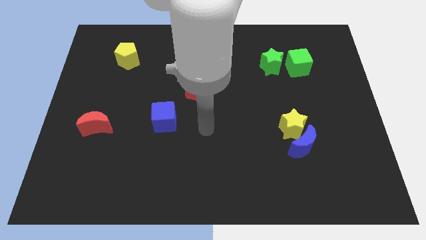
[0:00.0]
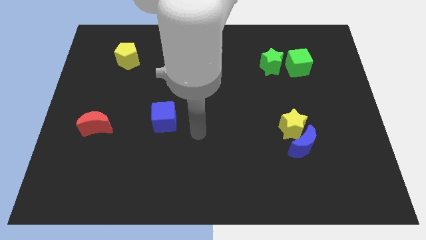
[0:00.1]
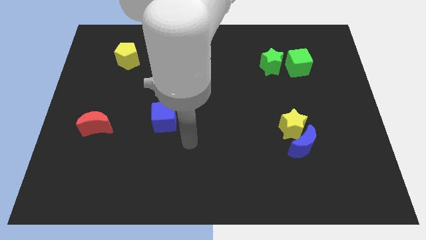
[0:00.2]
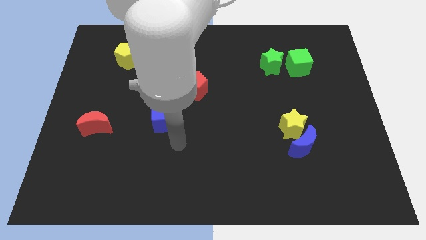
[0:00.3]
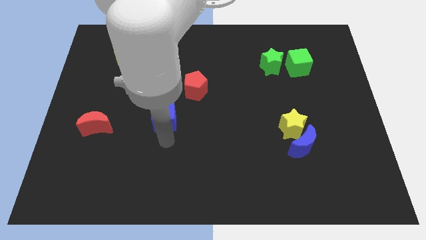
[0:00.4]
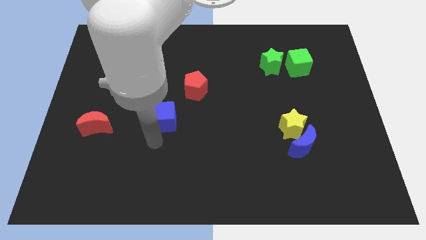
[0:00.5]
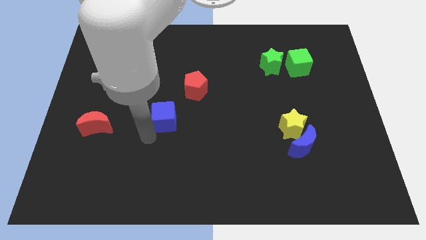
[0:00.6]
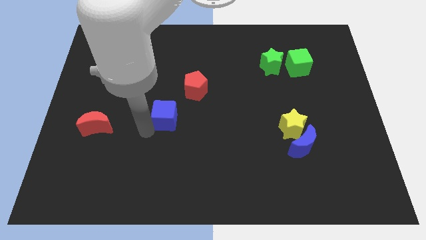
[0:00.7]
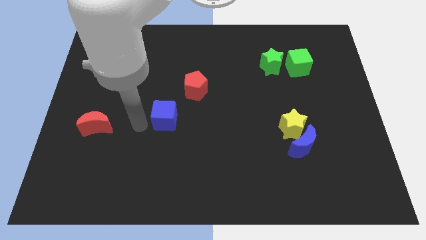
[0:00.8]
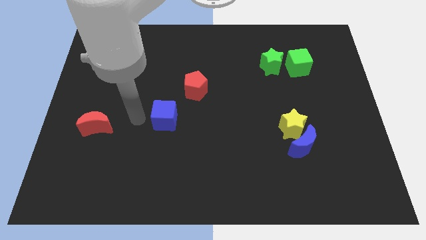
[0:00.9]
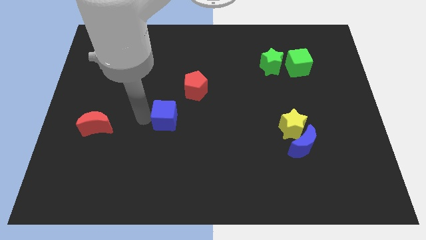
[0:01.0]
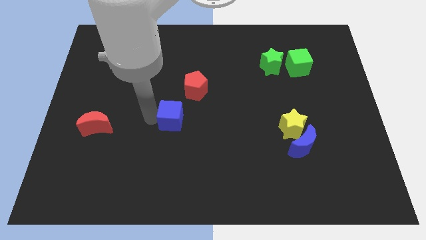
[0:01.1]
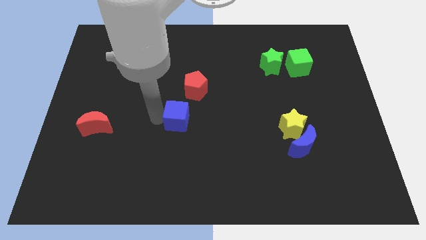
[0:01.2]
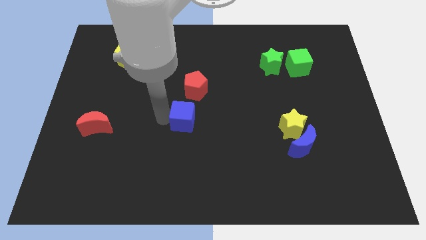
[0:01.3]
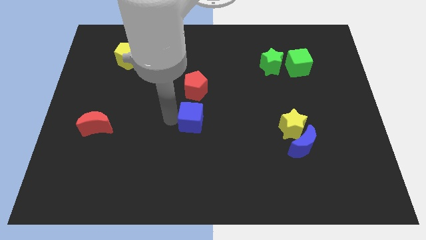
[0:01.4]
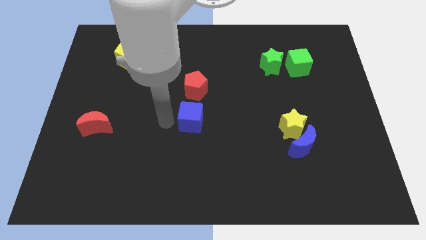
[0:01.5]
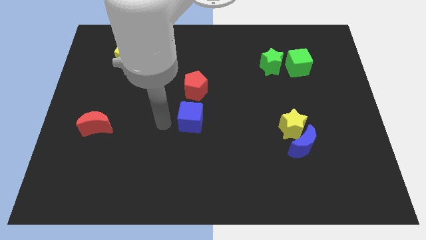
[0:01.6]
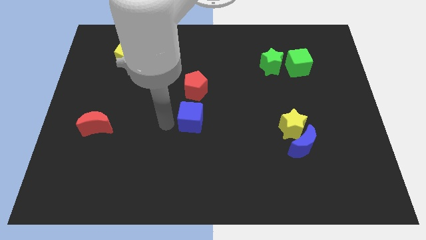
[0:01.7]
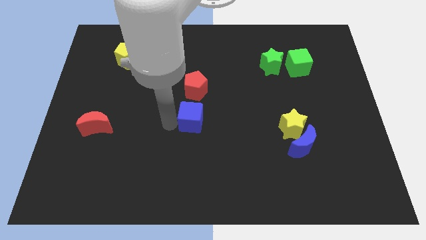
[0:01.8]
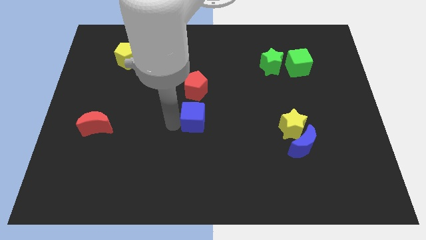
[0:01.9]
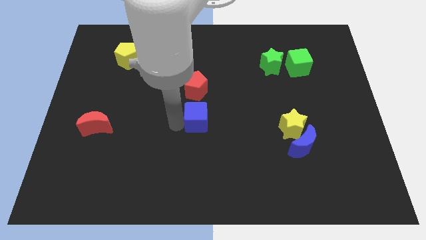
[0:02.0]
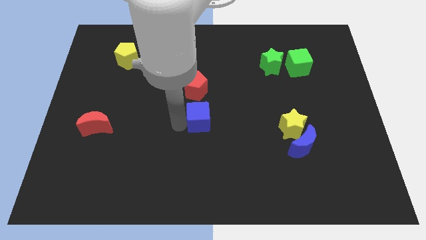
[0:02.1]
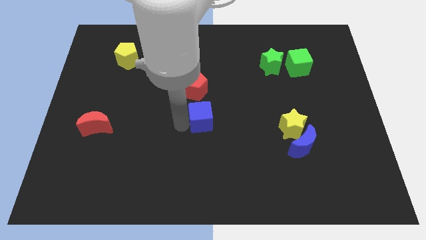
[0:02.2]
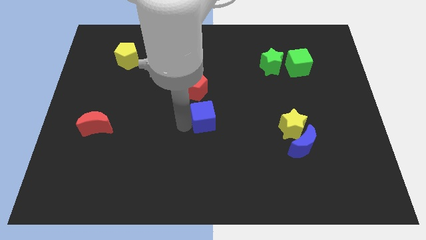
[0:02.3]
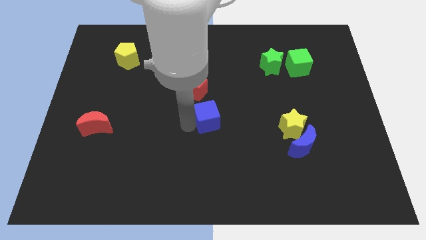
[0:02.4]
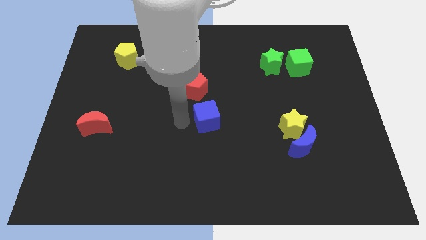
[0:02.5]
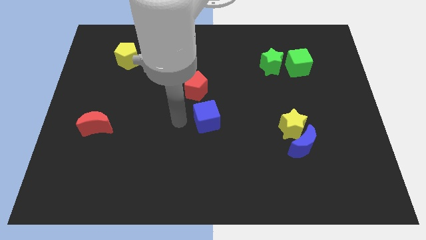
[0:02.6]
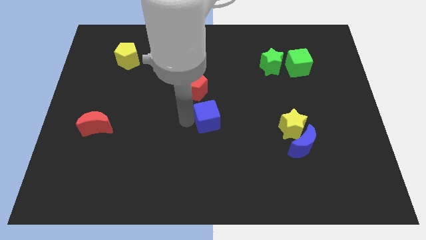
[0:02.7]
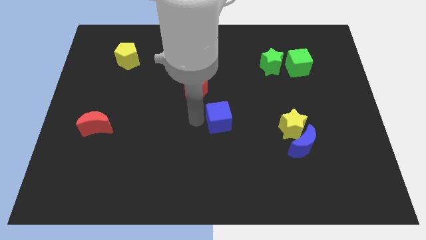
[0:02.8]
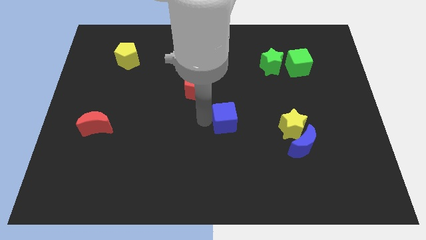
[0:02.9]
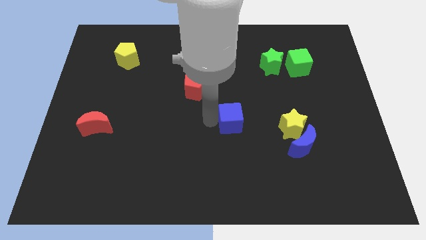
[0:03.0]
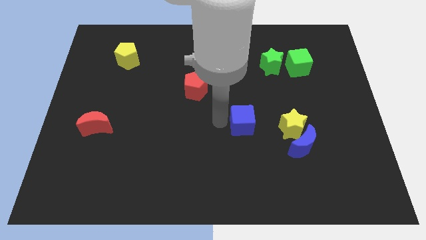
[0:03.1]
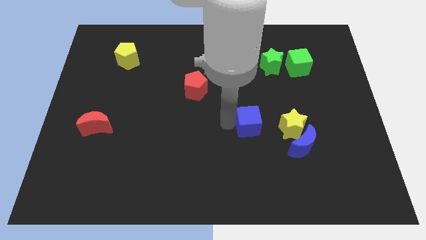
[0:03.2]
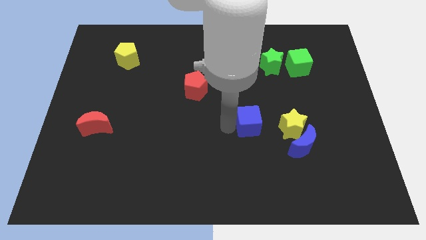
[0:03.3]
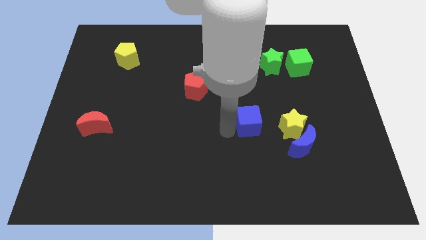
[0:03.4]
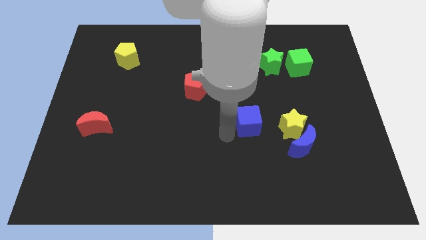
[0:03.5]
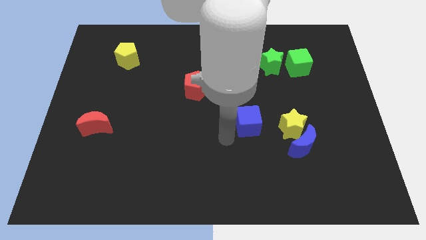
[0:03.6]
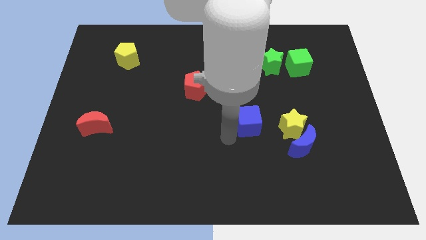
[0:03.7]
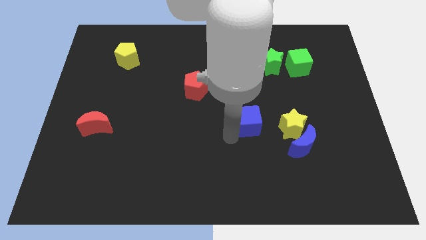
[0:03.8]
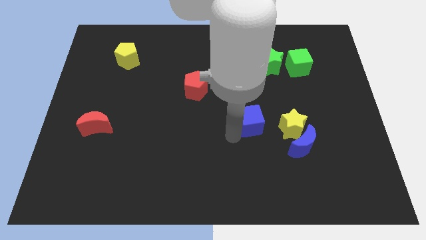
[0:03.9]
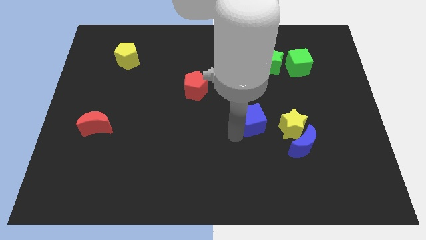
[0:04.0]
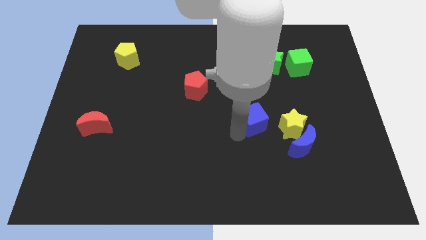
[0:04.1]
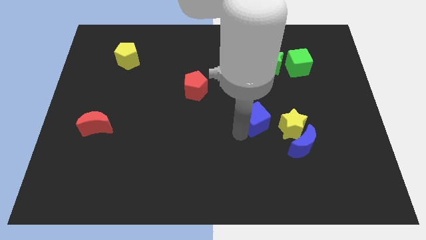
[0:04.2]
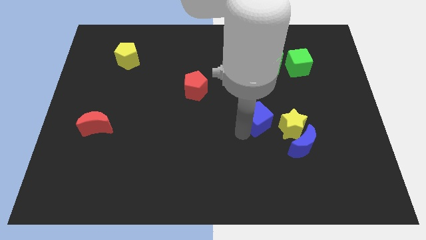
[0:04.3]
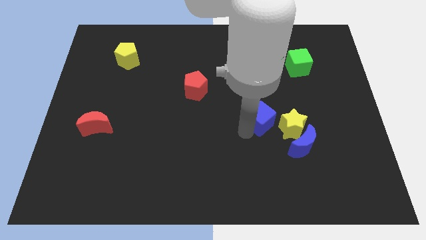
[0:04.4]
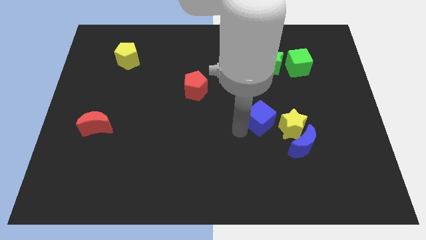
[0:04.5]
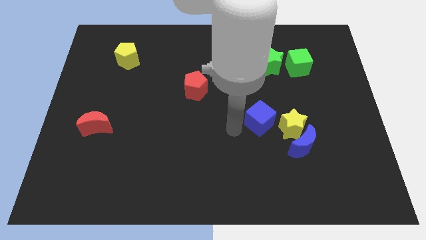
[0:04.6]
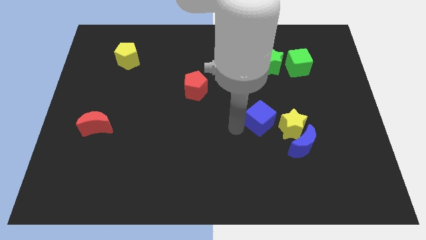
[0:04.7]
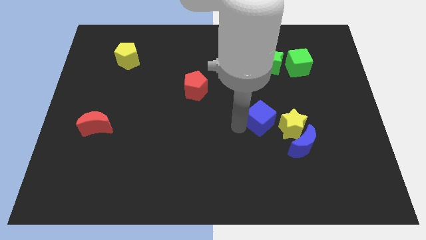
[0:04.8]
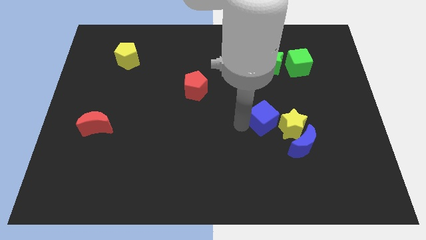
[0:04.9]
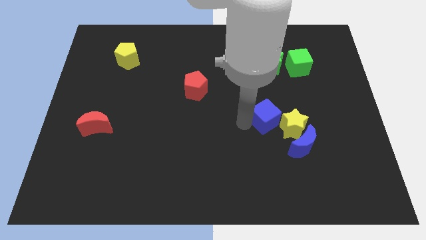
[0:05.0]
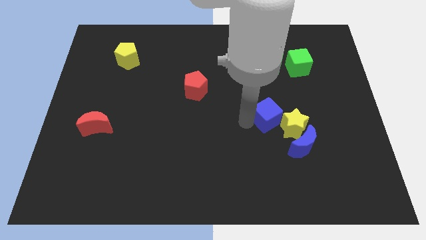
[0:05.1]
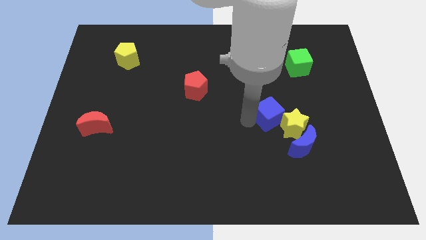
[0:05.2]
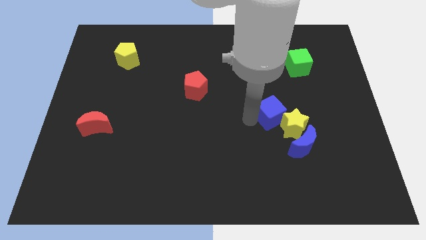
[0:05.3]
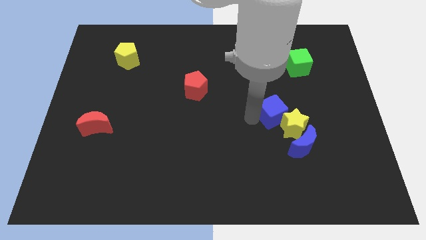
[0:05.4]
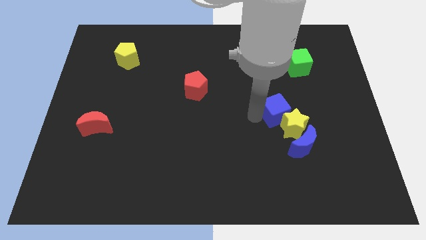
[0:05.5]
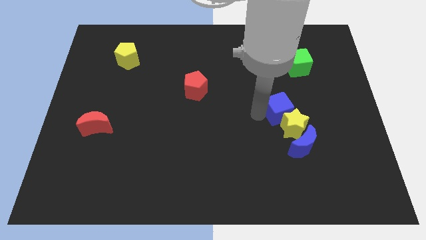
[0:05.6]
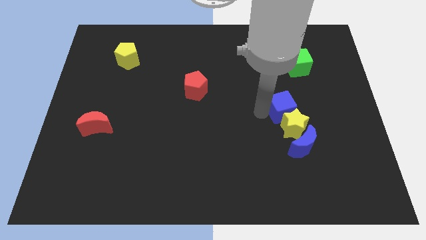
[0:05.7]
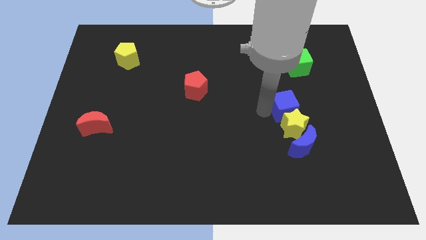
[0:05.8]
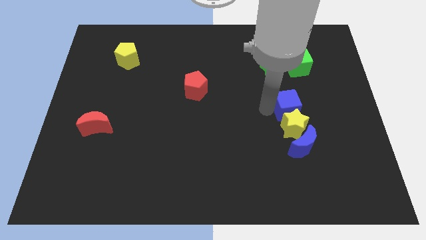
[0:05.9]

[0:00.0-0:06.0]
move the blue cube diagonally up and to the right of the yellow star

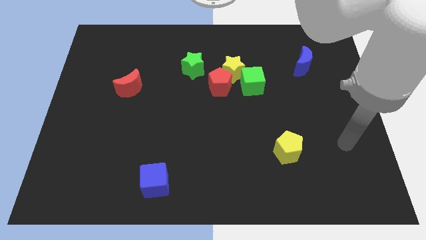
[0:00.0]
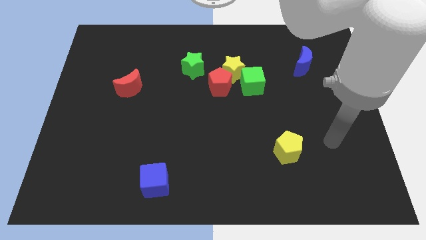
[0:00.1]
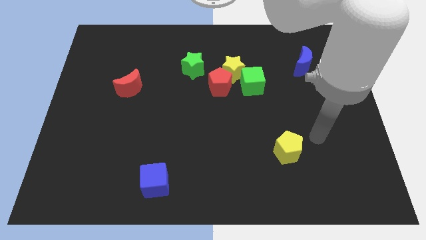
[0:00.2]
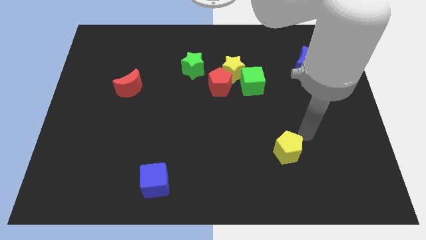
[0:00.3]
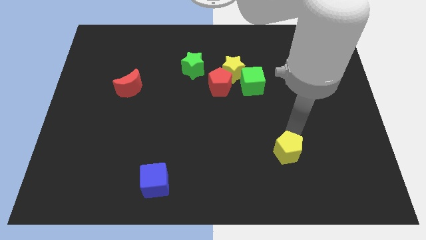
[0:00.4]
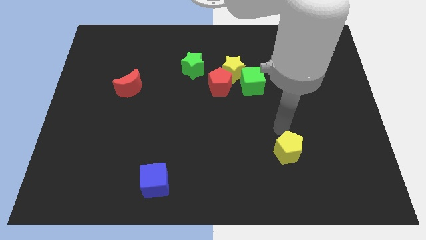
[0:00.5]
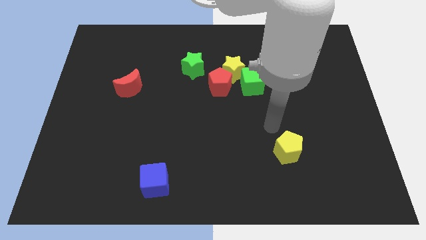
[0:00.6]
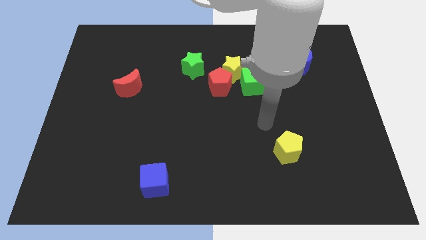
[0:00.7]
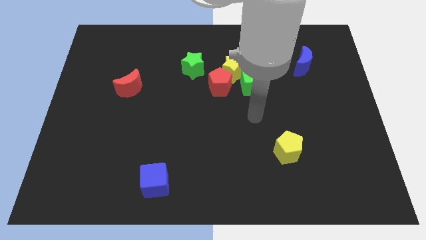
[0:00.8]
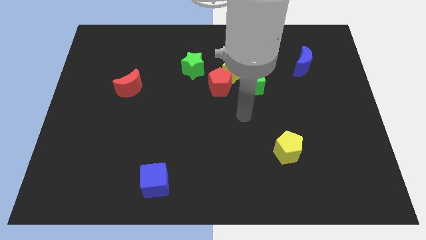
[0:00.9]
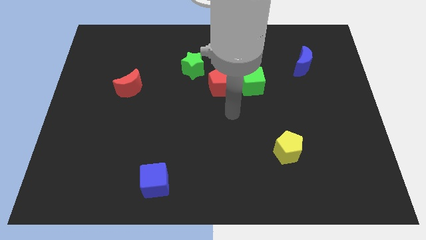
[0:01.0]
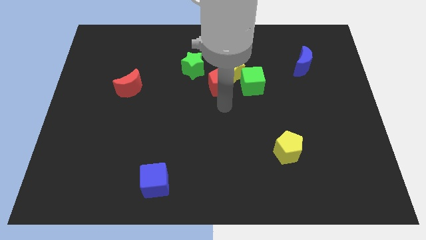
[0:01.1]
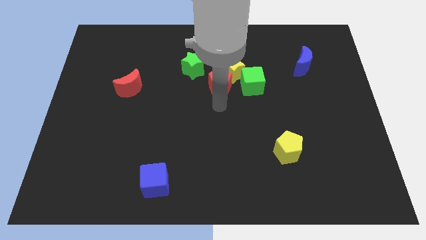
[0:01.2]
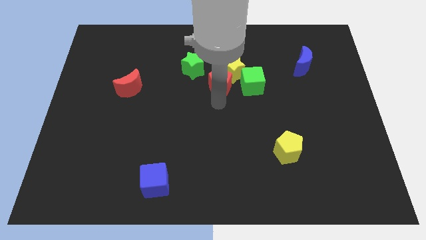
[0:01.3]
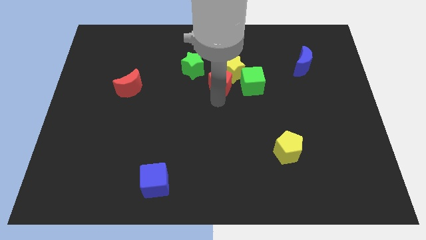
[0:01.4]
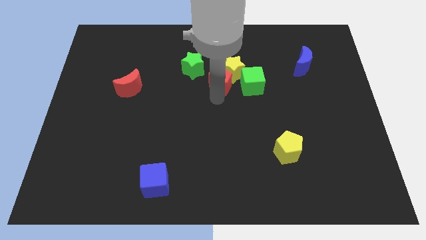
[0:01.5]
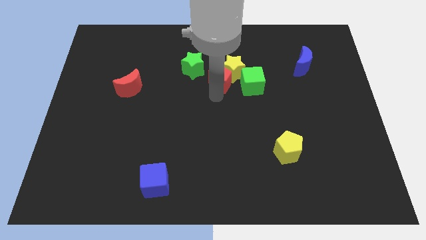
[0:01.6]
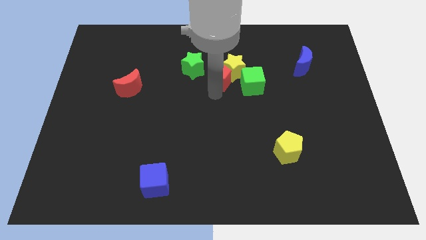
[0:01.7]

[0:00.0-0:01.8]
put the red pentagon to the top left of the green cube

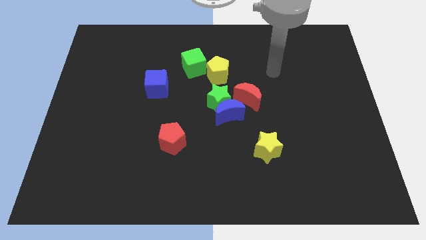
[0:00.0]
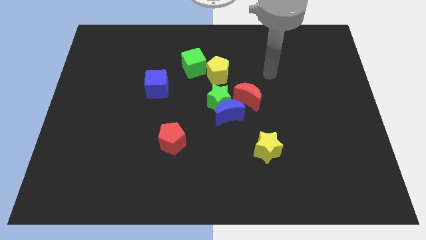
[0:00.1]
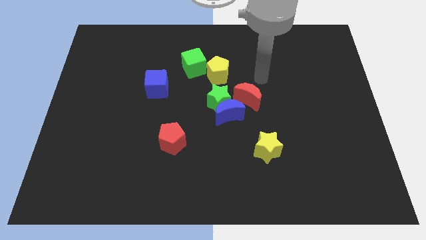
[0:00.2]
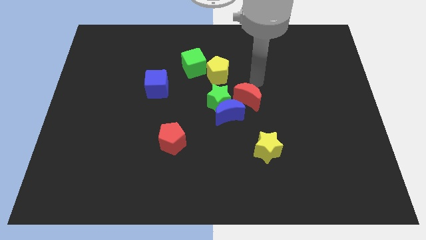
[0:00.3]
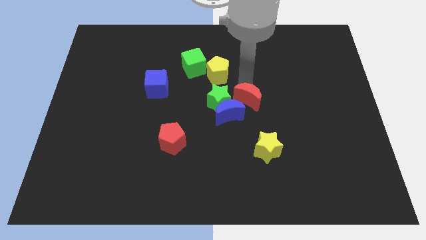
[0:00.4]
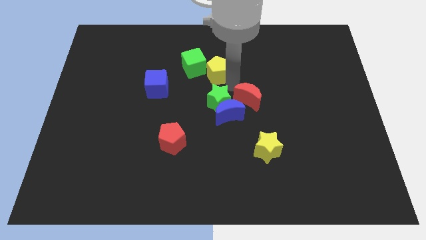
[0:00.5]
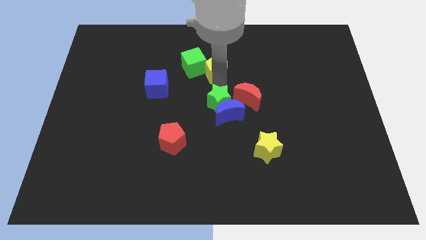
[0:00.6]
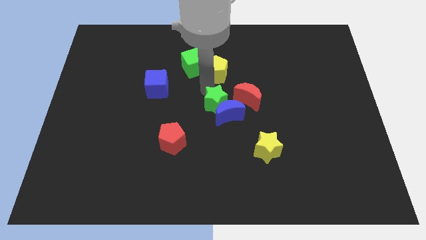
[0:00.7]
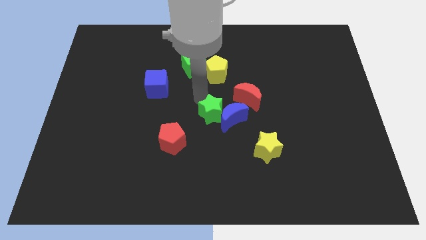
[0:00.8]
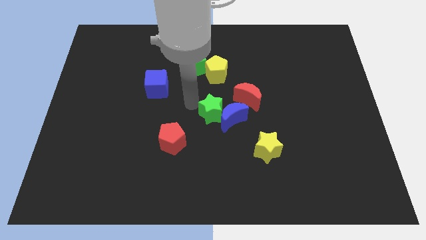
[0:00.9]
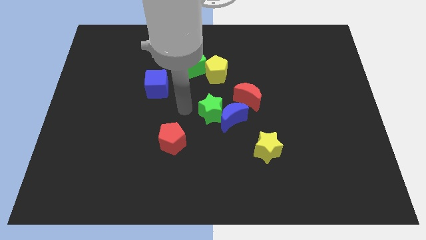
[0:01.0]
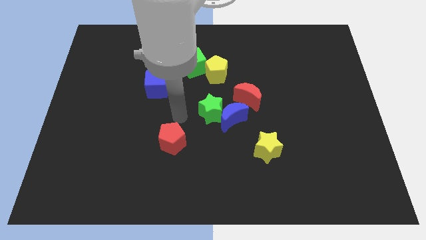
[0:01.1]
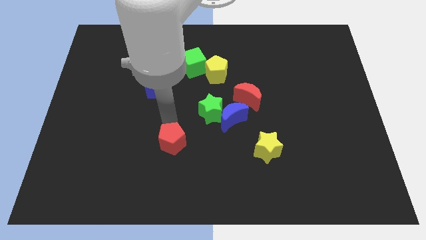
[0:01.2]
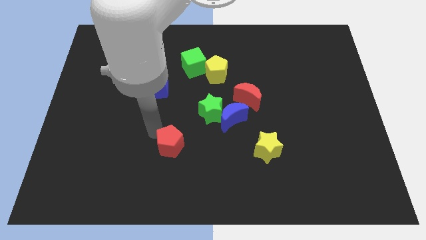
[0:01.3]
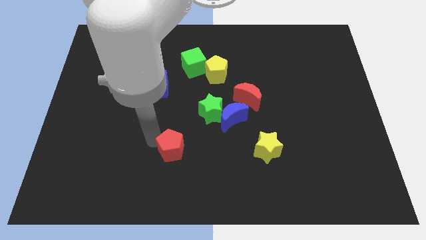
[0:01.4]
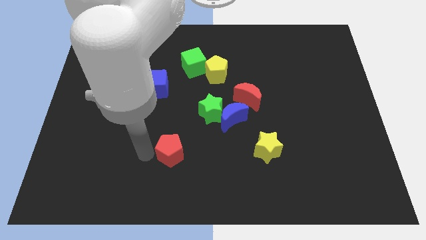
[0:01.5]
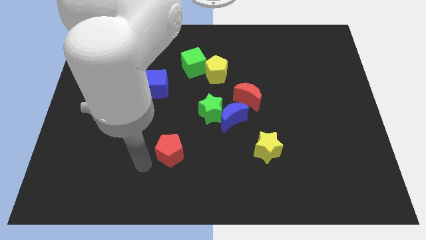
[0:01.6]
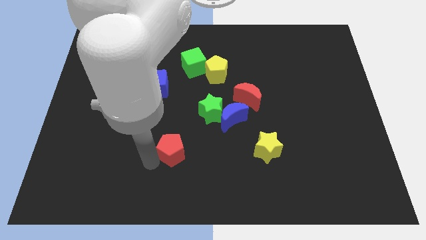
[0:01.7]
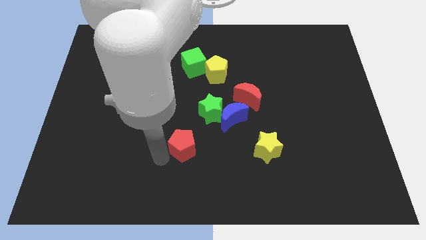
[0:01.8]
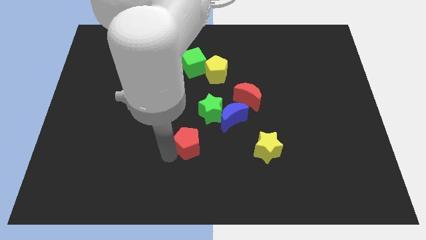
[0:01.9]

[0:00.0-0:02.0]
put the red pentagon diagonally down and to the left of the blue moon
